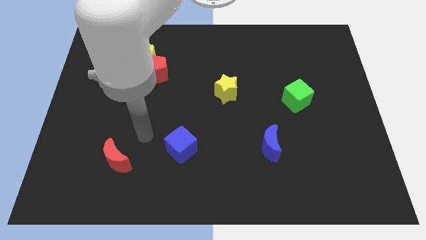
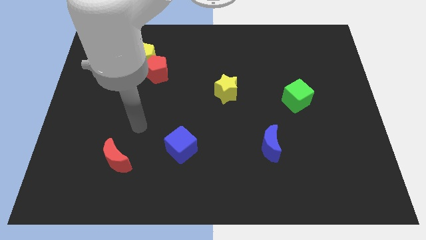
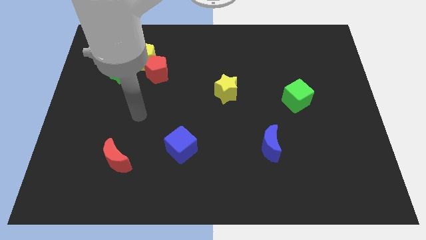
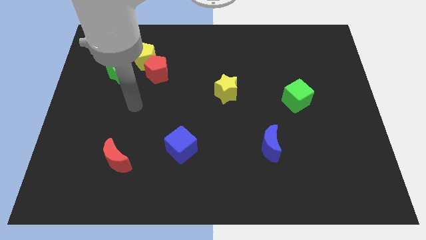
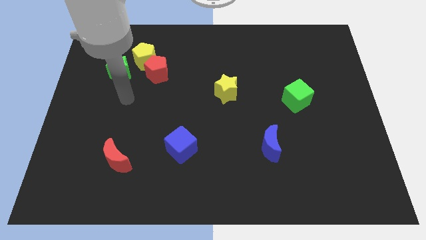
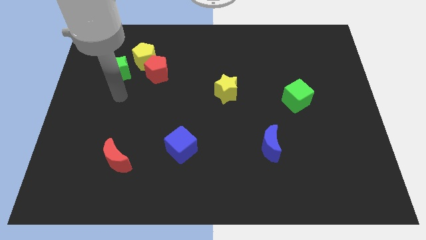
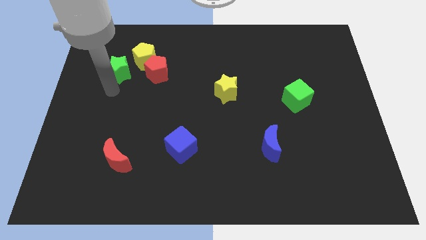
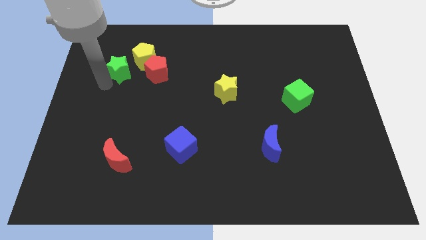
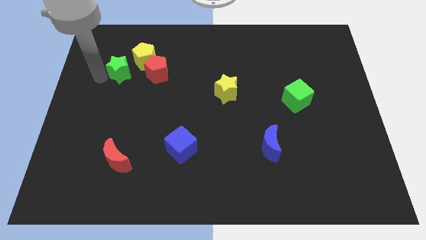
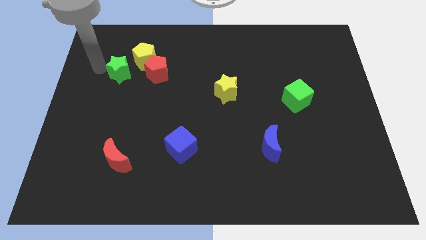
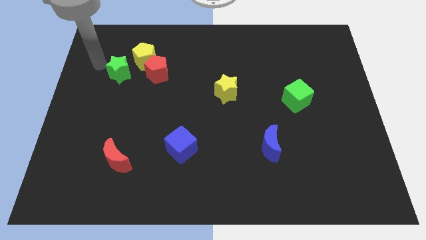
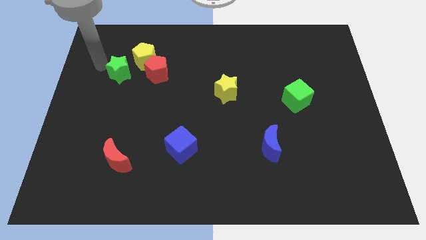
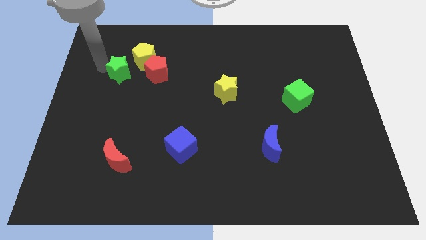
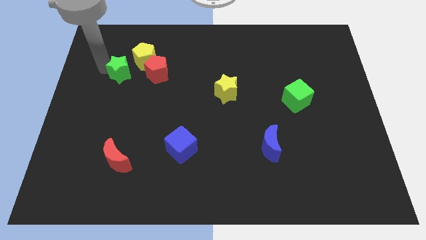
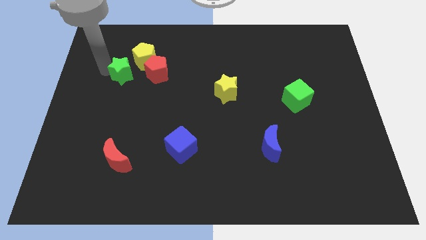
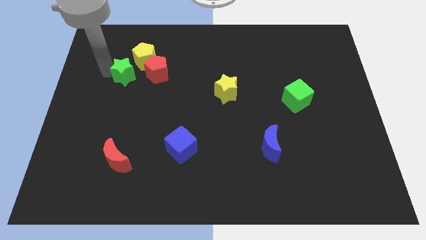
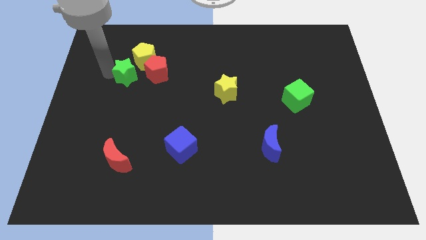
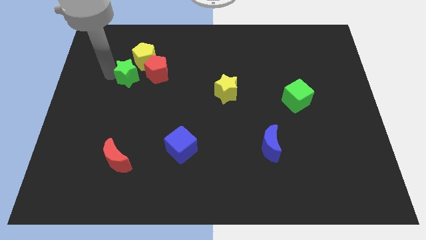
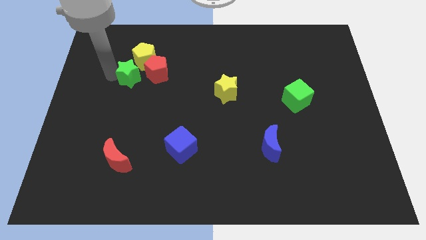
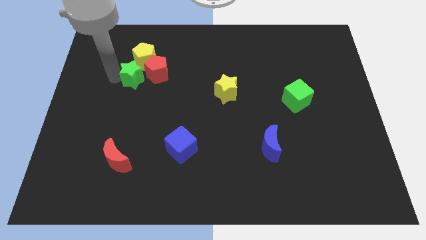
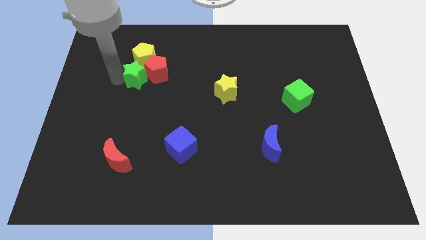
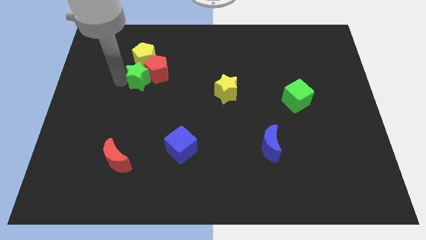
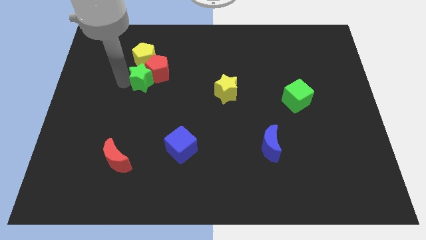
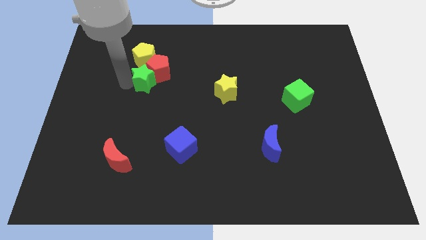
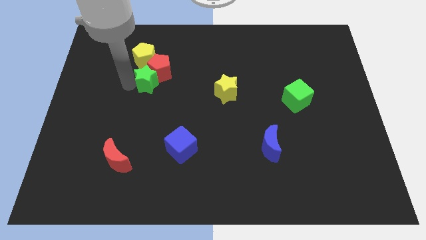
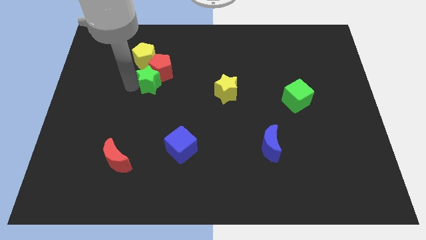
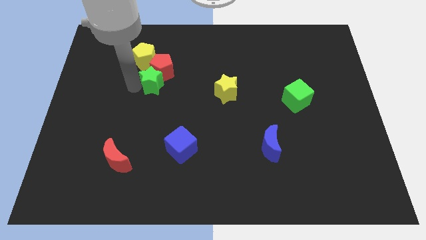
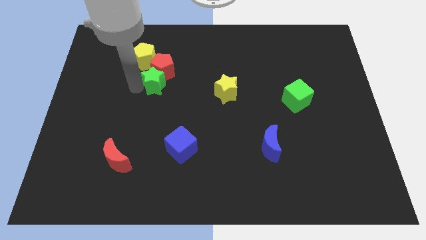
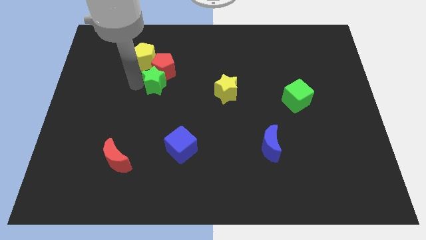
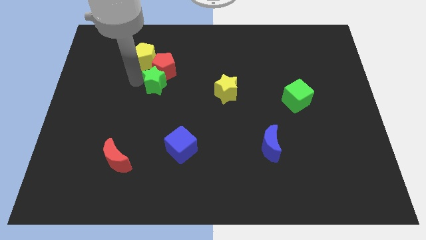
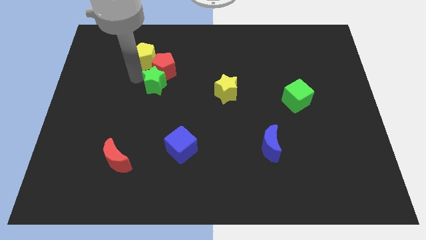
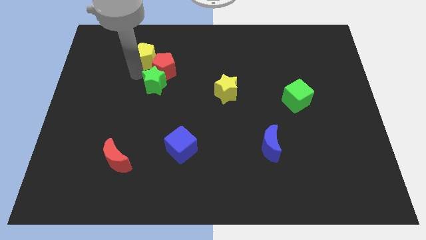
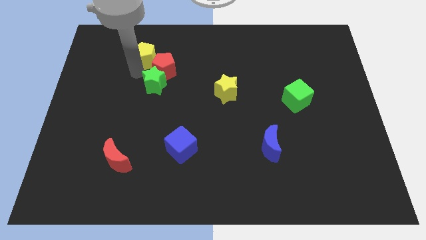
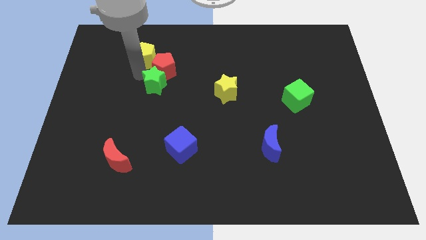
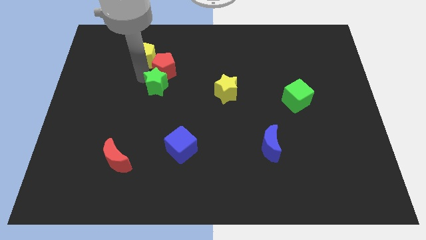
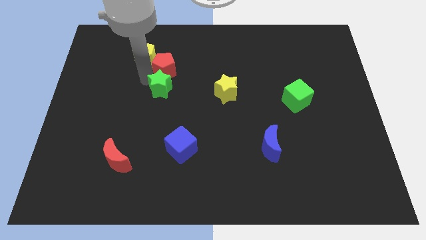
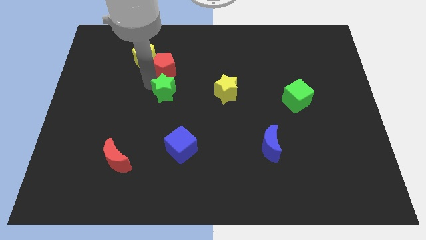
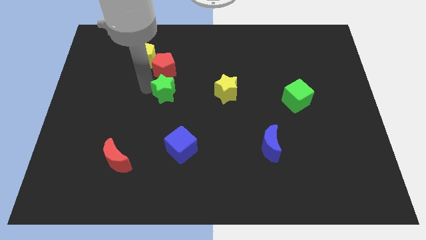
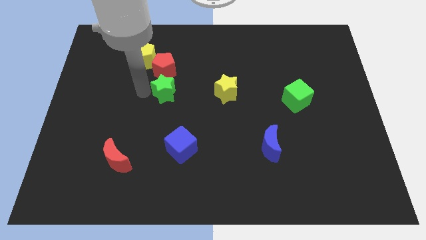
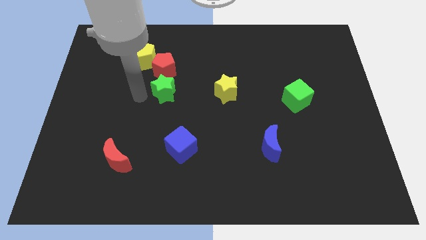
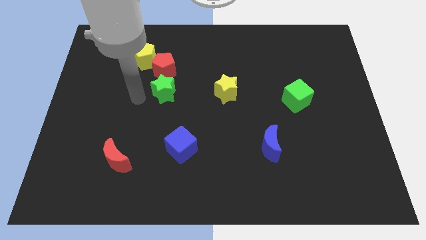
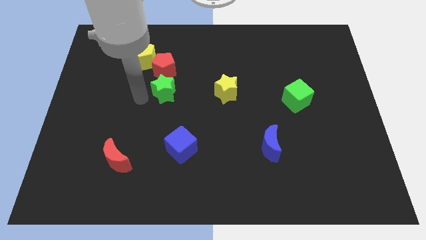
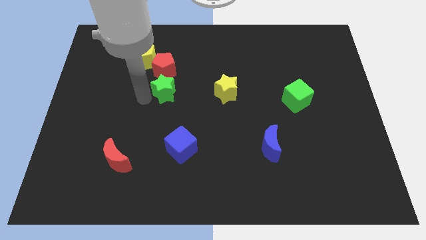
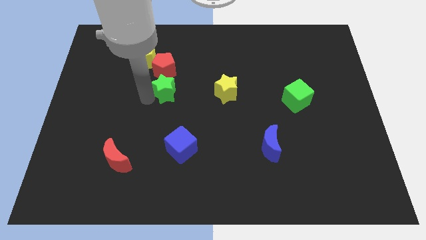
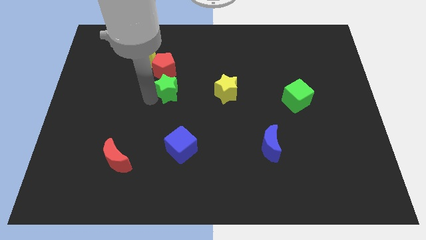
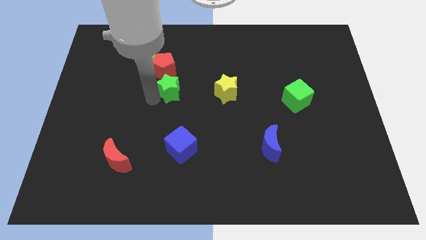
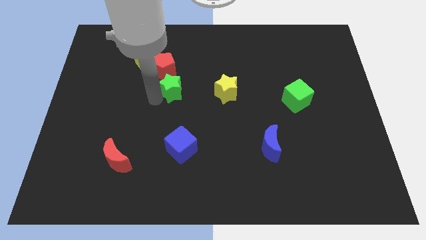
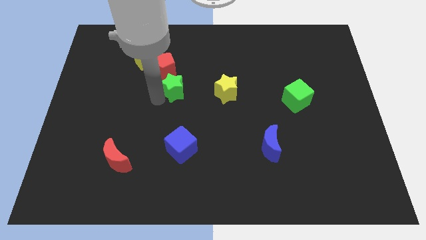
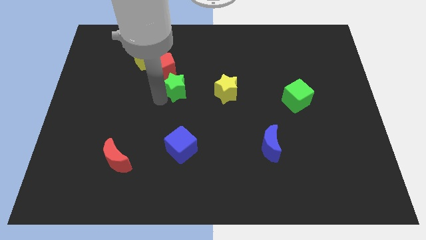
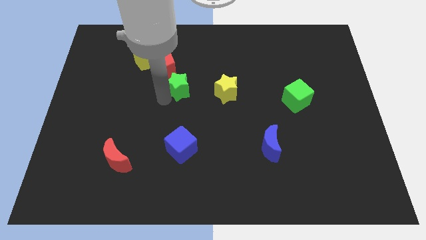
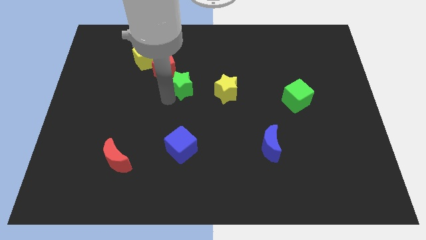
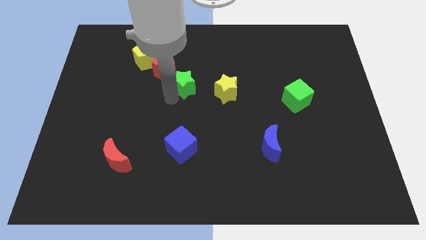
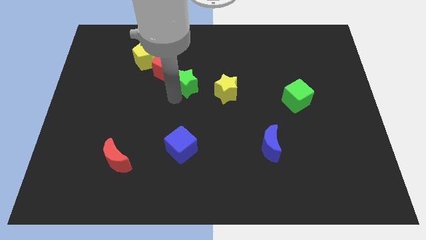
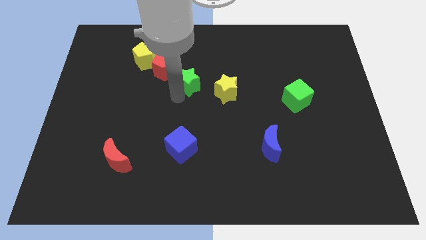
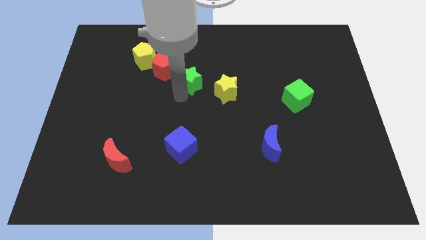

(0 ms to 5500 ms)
put the green star diagonally up and to the left of the yellow star
